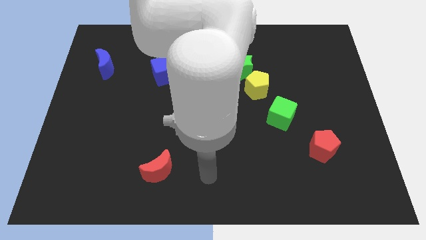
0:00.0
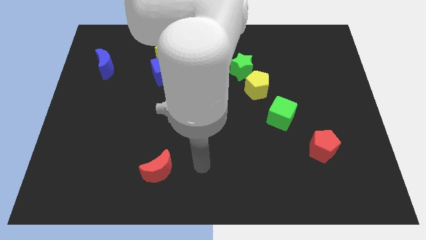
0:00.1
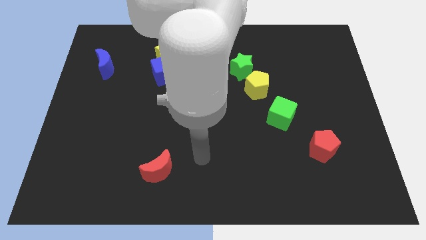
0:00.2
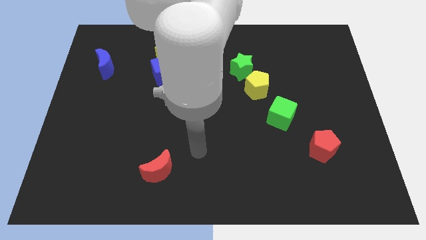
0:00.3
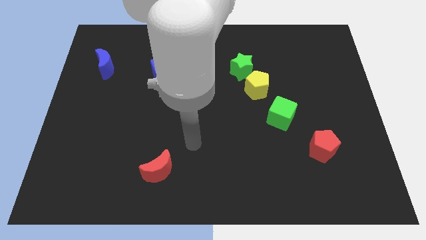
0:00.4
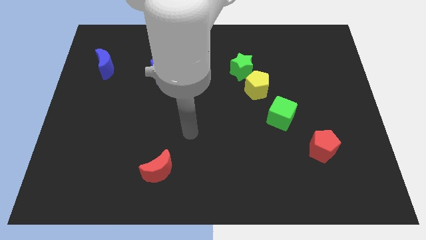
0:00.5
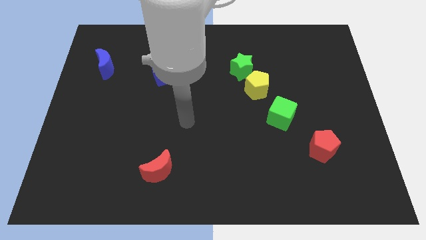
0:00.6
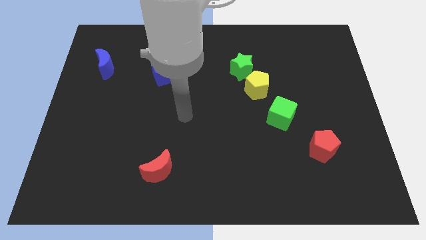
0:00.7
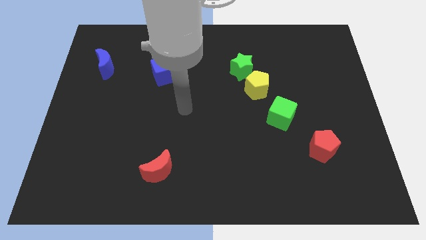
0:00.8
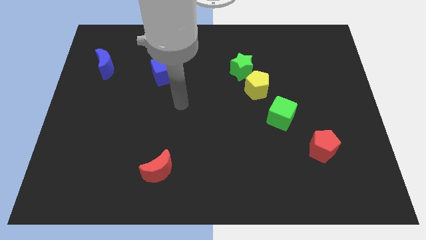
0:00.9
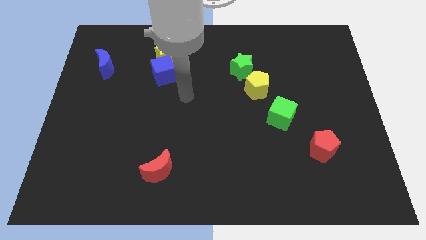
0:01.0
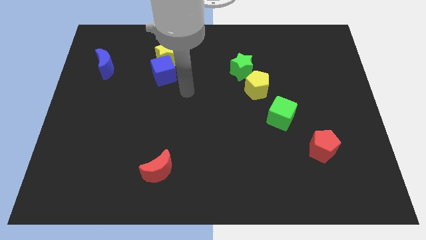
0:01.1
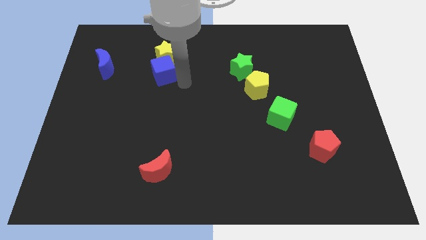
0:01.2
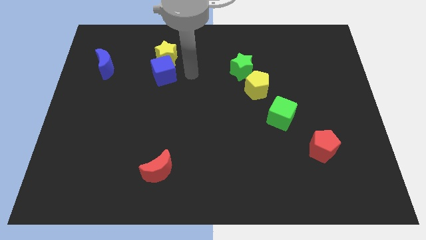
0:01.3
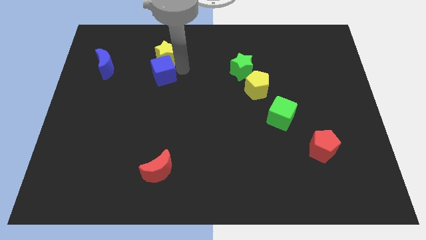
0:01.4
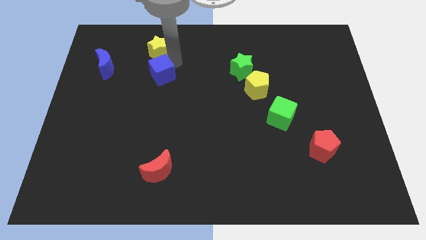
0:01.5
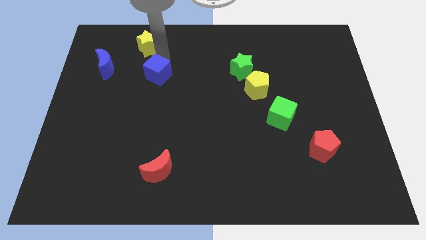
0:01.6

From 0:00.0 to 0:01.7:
pull the blue cube apart from the yellow star

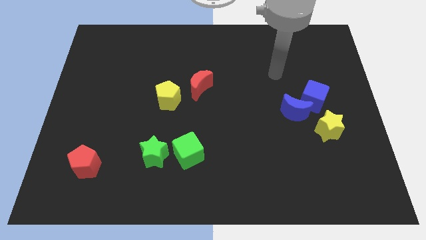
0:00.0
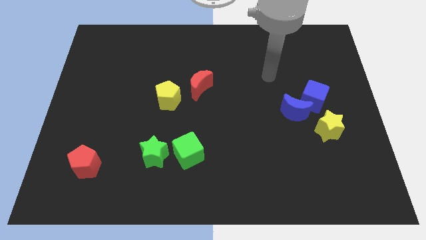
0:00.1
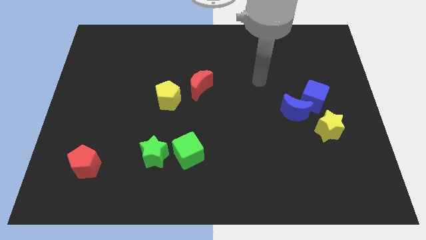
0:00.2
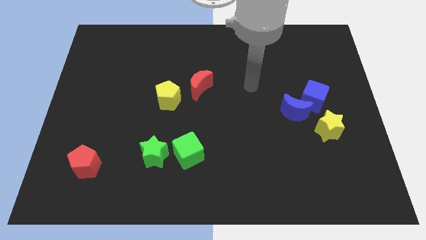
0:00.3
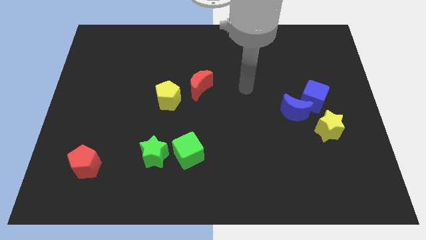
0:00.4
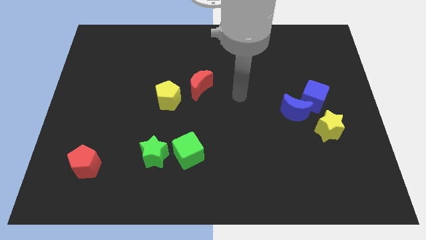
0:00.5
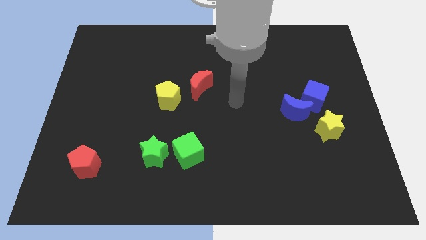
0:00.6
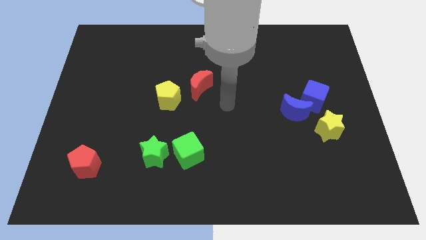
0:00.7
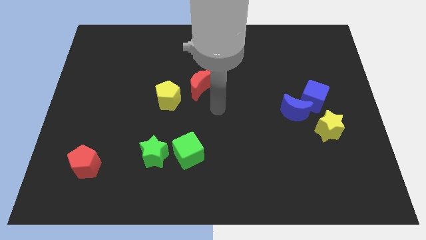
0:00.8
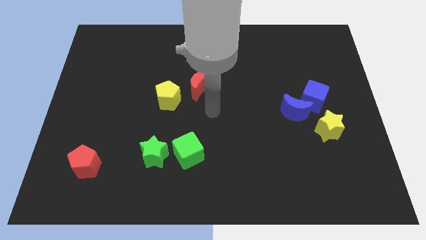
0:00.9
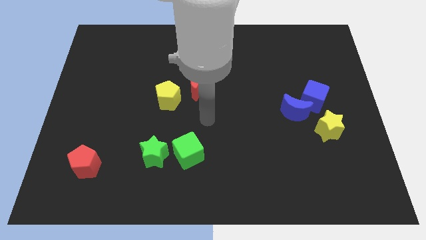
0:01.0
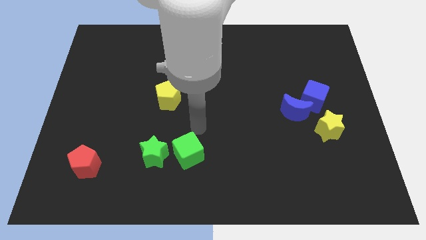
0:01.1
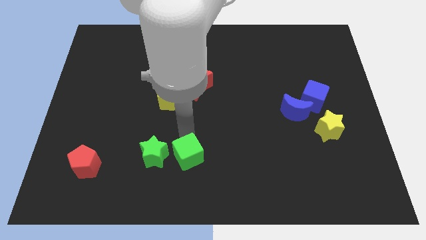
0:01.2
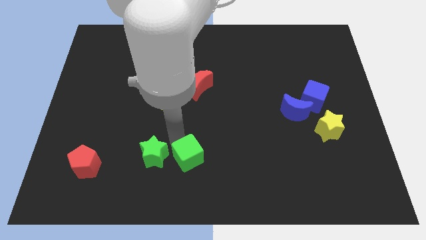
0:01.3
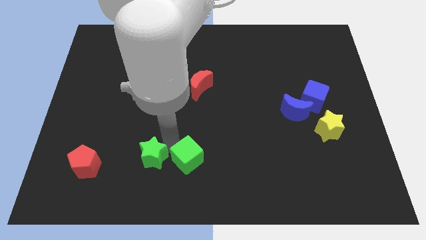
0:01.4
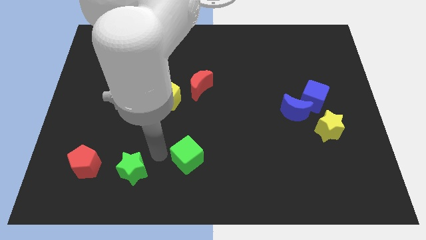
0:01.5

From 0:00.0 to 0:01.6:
separate the green cube from the green star

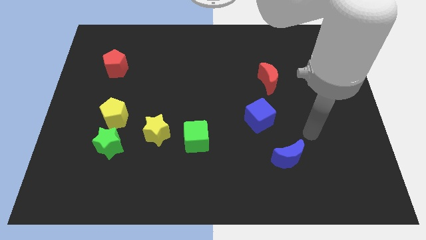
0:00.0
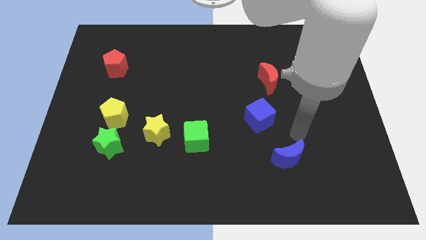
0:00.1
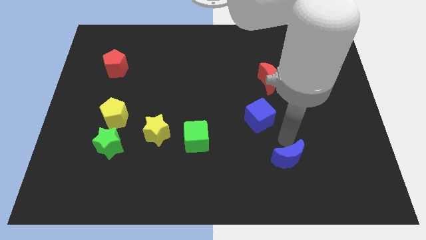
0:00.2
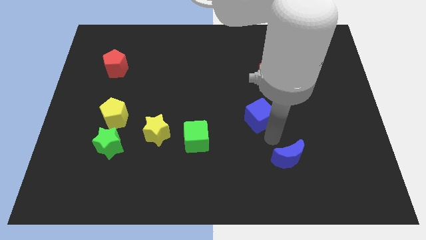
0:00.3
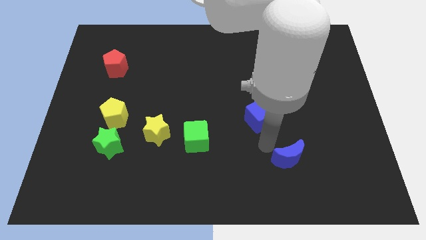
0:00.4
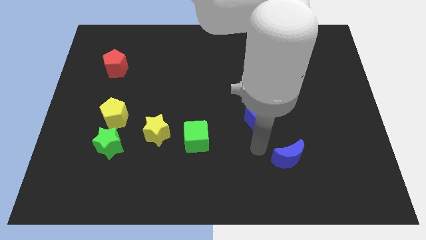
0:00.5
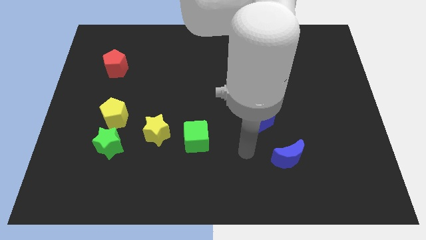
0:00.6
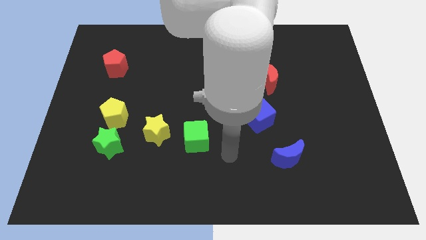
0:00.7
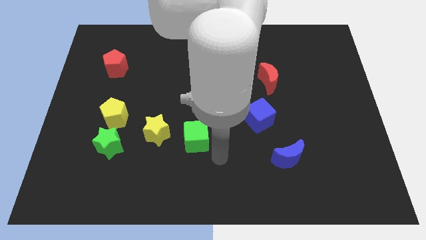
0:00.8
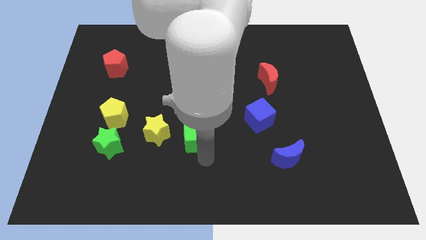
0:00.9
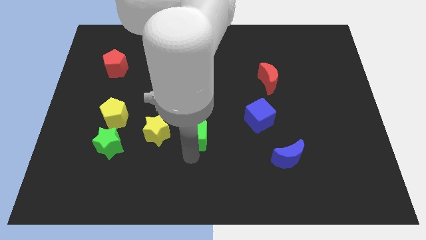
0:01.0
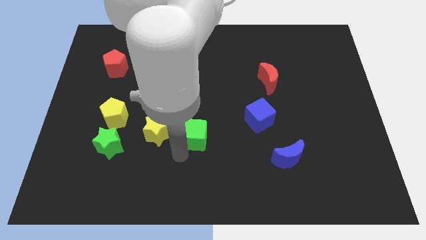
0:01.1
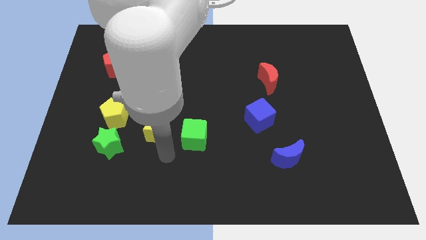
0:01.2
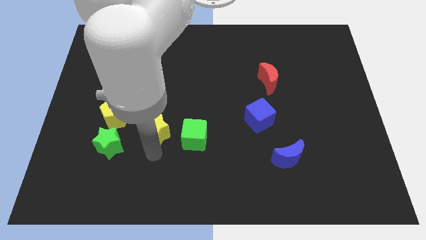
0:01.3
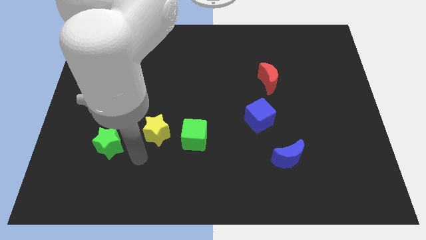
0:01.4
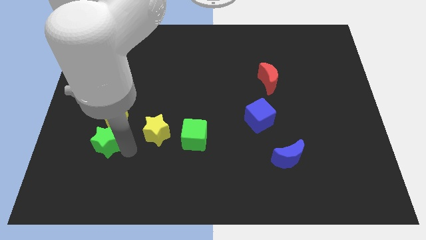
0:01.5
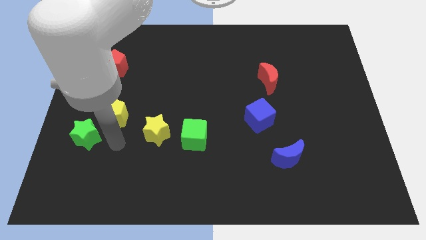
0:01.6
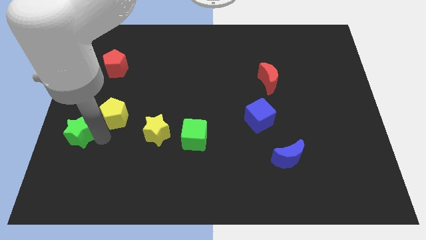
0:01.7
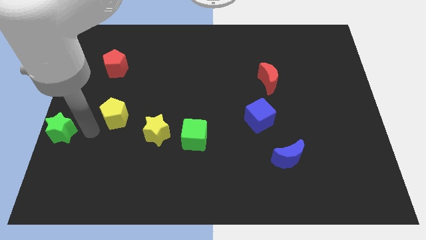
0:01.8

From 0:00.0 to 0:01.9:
move the yellow pentagon away from the green star

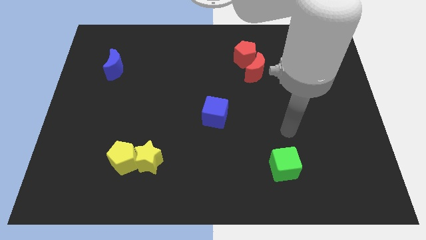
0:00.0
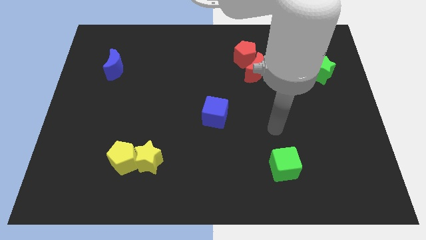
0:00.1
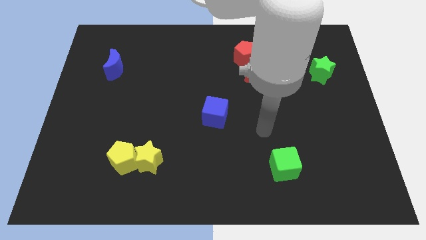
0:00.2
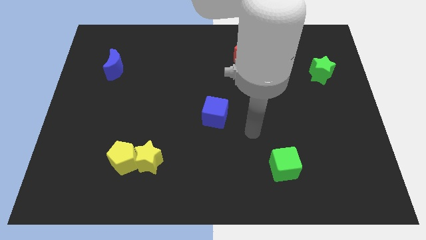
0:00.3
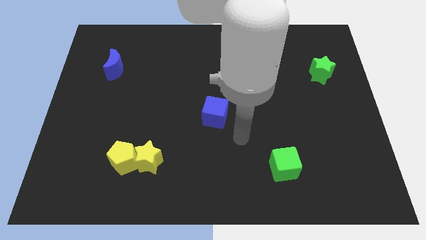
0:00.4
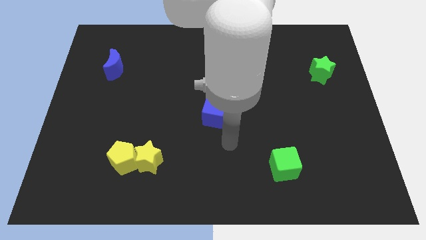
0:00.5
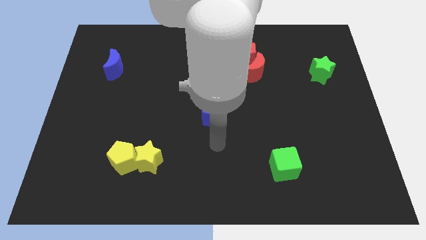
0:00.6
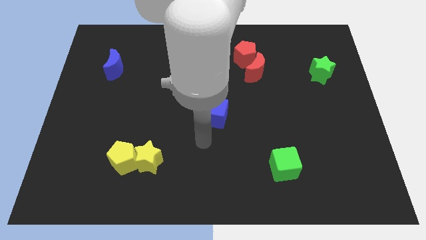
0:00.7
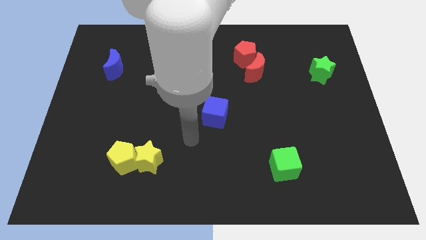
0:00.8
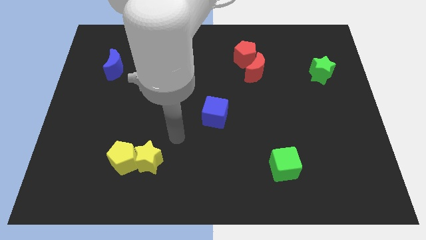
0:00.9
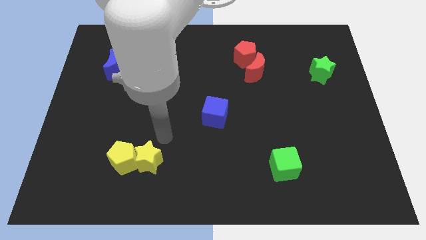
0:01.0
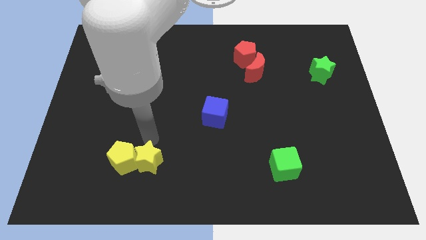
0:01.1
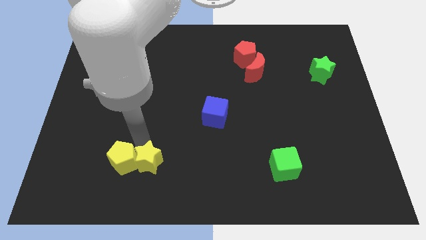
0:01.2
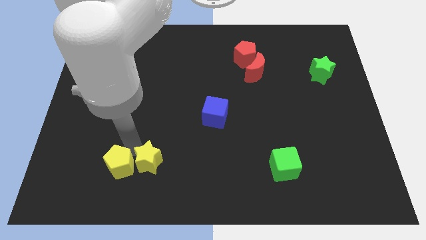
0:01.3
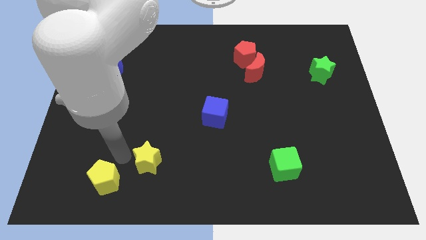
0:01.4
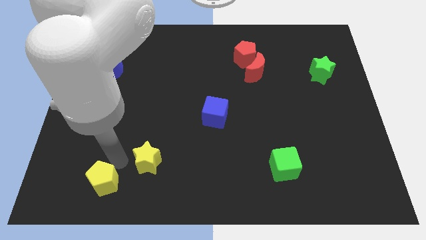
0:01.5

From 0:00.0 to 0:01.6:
separate the yellow star from the yellow pentagon

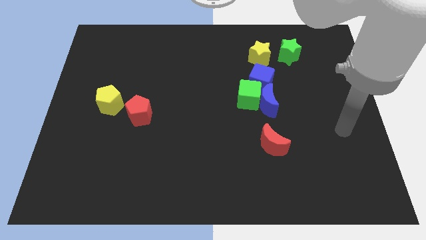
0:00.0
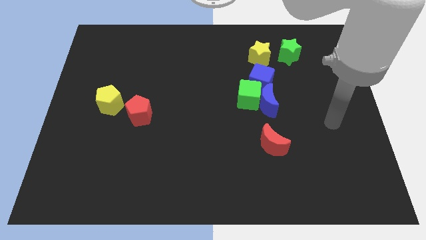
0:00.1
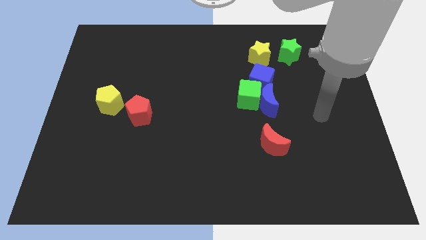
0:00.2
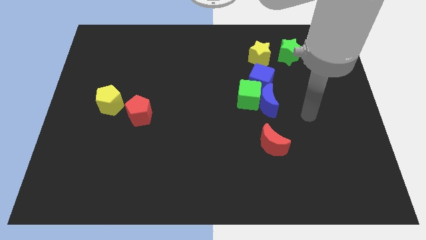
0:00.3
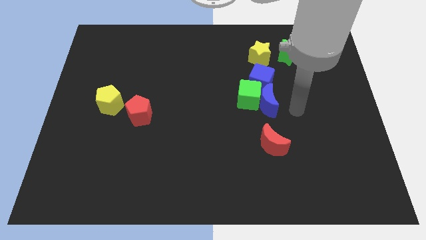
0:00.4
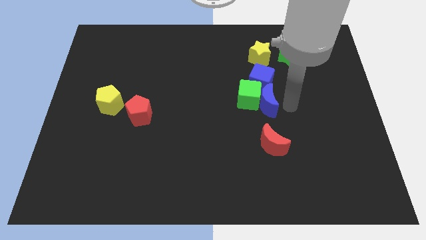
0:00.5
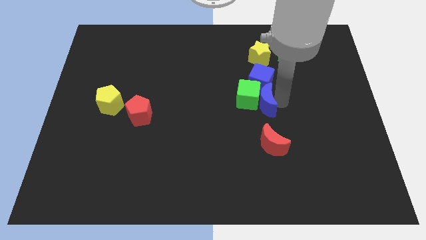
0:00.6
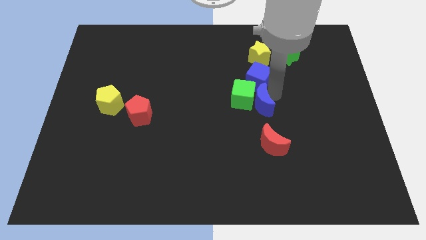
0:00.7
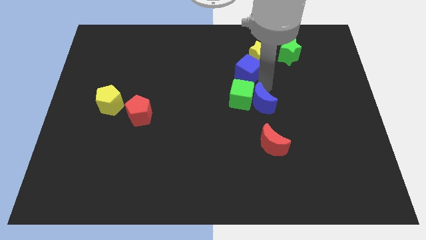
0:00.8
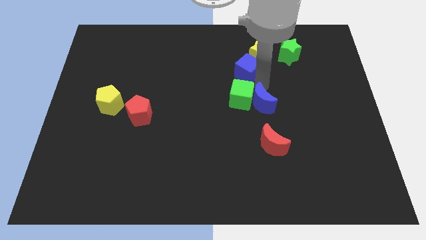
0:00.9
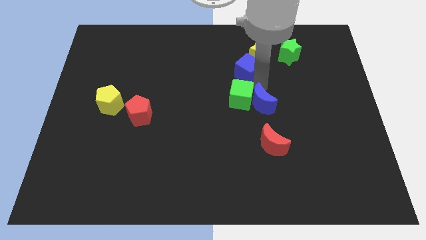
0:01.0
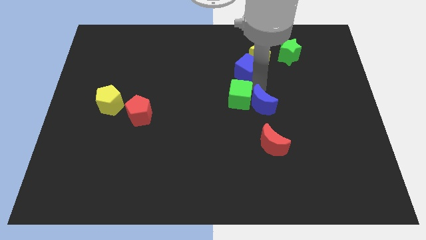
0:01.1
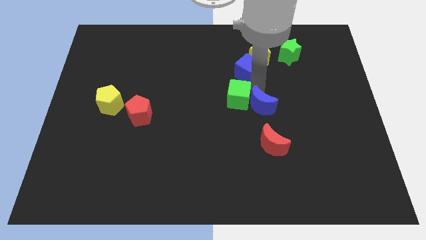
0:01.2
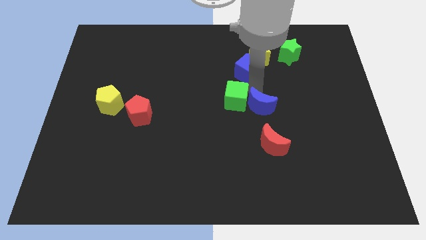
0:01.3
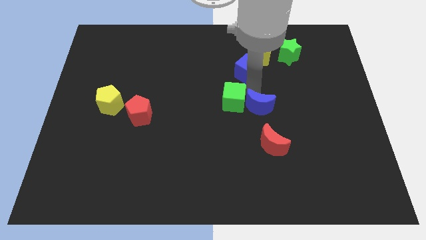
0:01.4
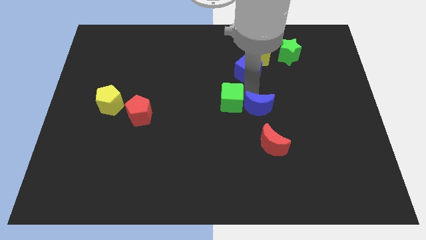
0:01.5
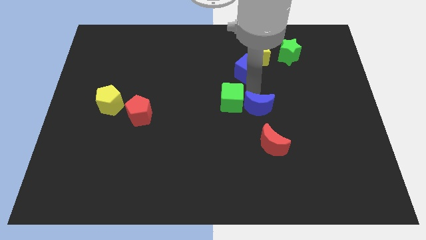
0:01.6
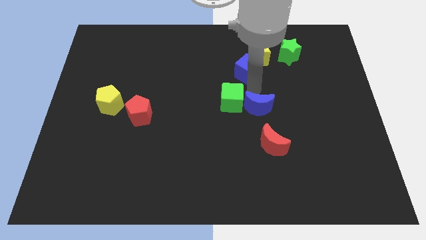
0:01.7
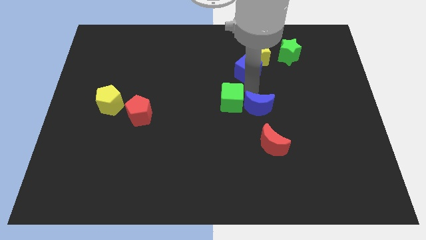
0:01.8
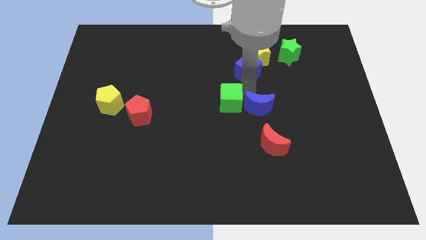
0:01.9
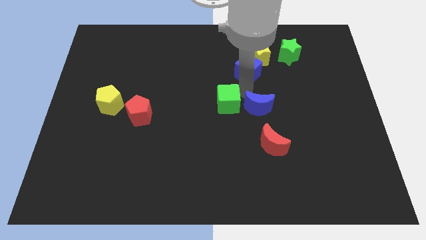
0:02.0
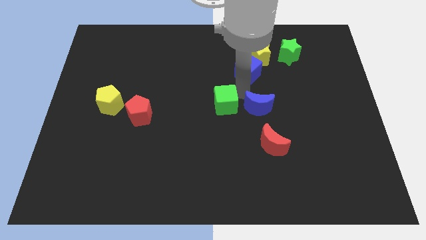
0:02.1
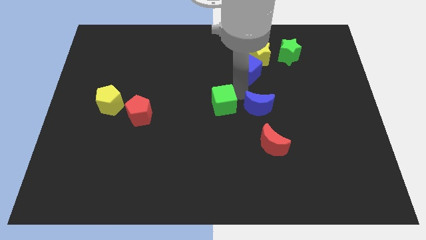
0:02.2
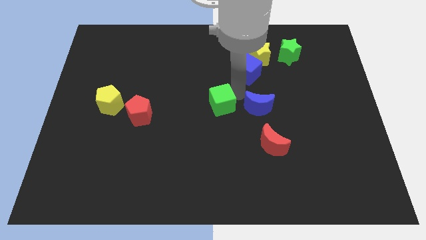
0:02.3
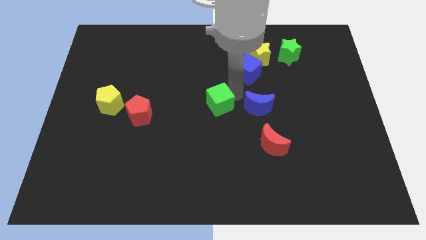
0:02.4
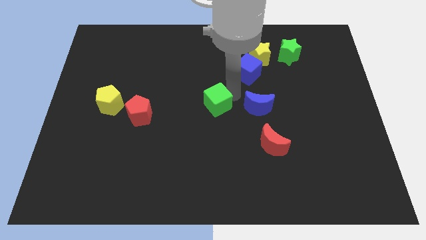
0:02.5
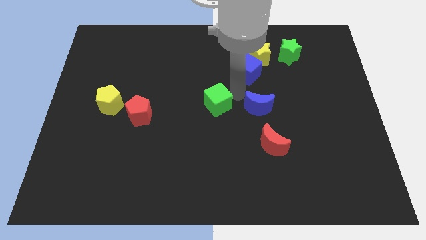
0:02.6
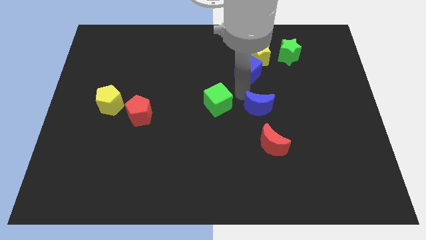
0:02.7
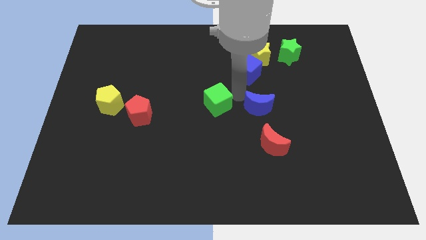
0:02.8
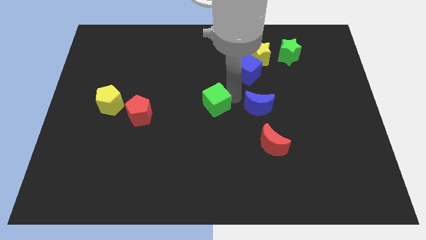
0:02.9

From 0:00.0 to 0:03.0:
separate the green cube from the blue moon and blue cube
